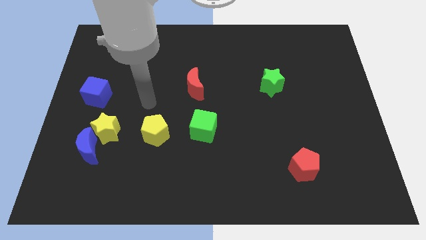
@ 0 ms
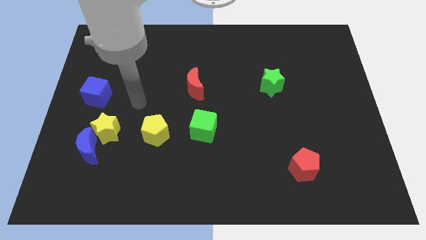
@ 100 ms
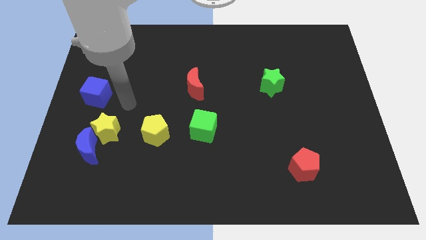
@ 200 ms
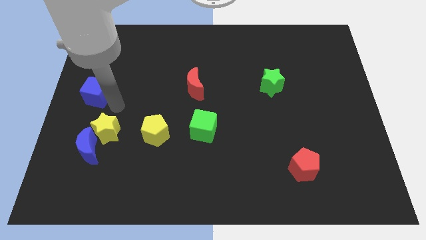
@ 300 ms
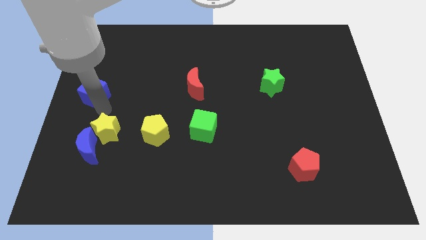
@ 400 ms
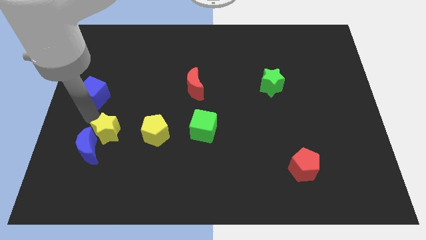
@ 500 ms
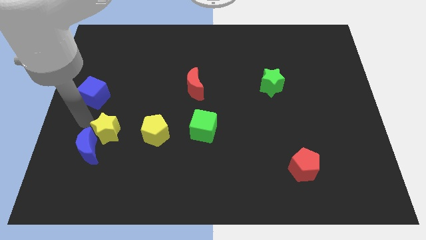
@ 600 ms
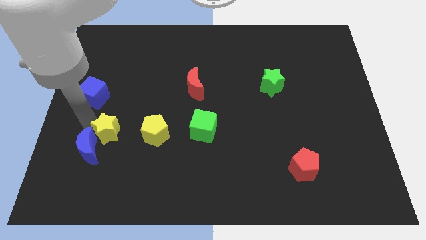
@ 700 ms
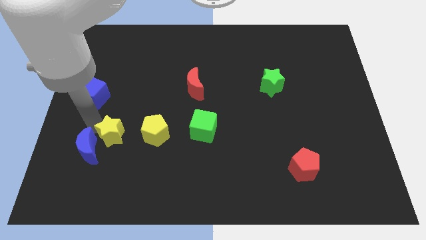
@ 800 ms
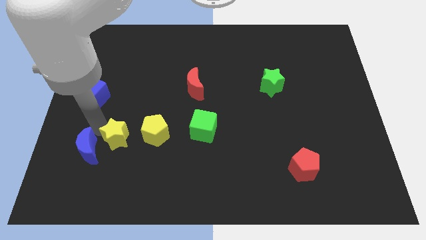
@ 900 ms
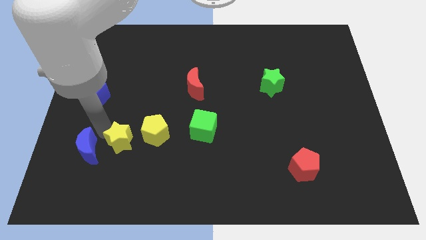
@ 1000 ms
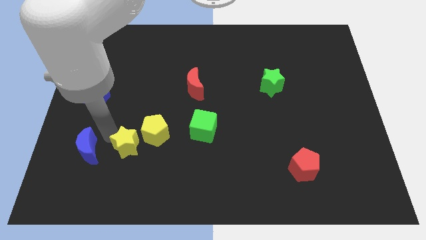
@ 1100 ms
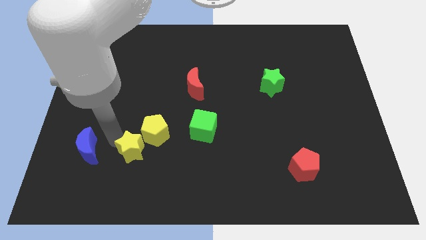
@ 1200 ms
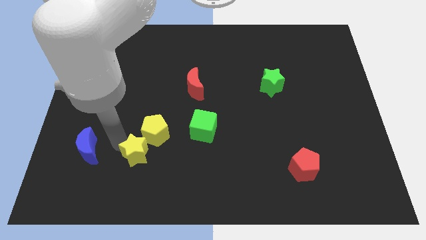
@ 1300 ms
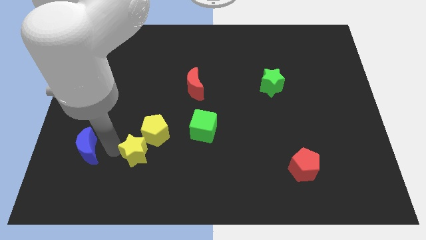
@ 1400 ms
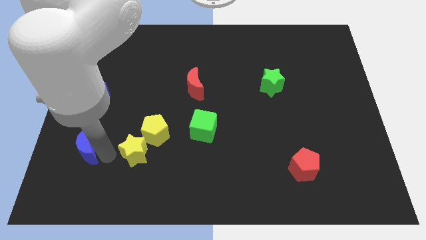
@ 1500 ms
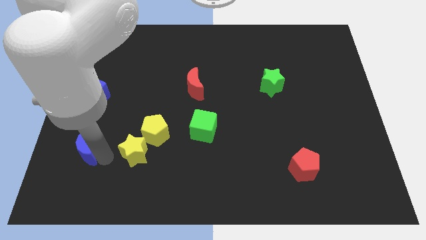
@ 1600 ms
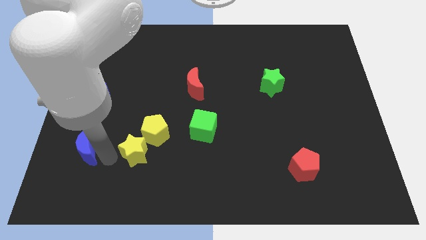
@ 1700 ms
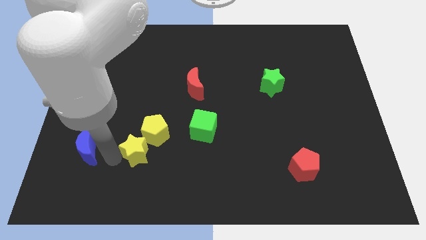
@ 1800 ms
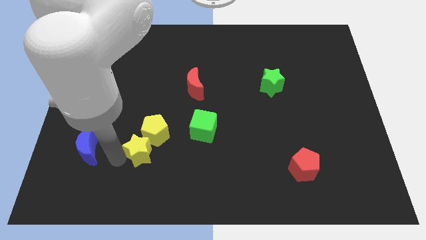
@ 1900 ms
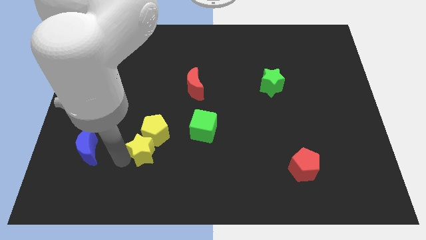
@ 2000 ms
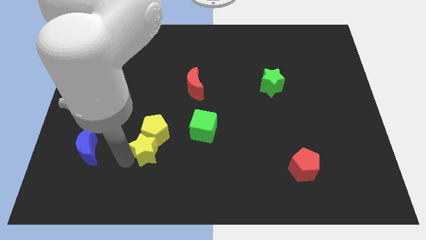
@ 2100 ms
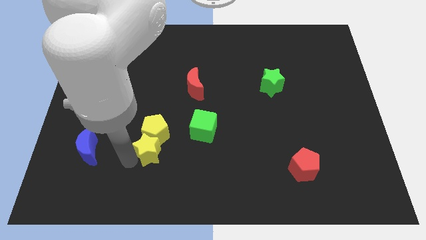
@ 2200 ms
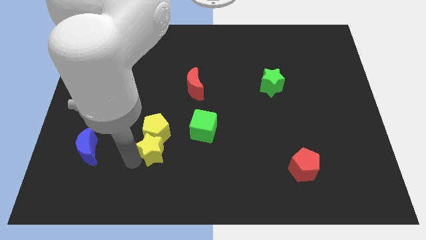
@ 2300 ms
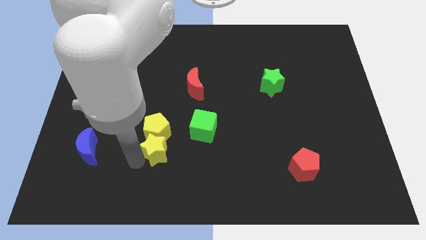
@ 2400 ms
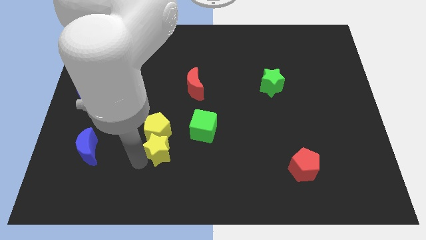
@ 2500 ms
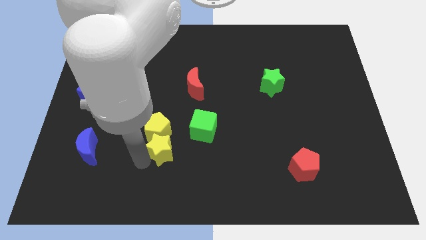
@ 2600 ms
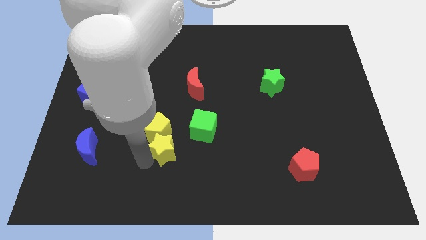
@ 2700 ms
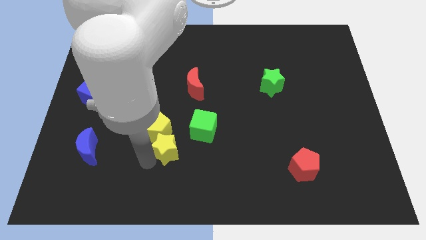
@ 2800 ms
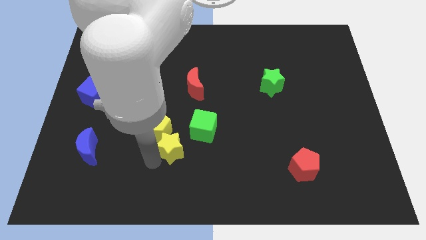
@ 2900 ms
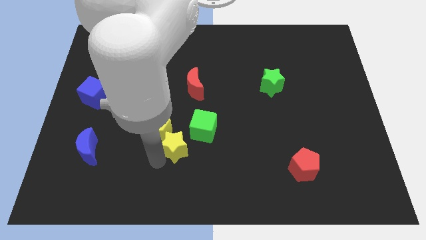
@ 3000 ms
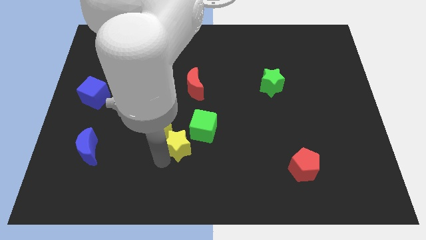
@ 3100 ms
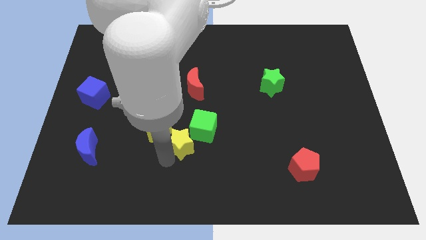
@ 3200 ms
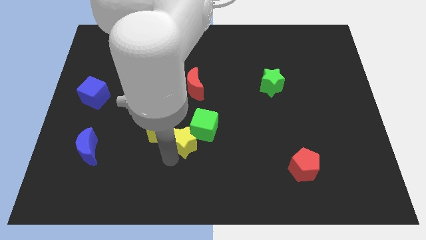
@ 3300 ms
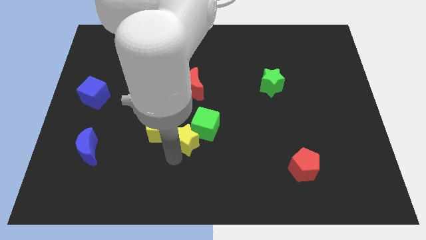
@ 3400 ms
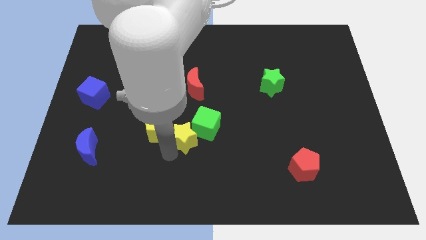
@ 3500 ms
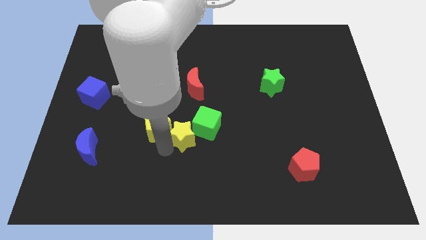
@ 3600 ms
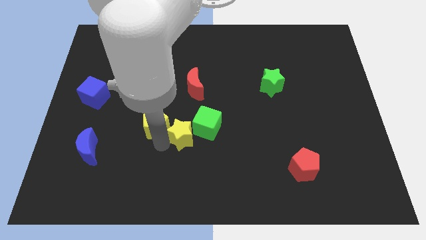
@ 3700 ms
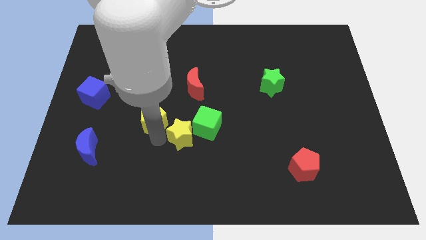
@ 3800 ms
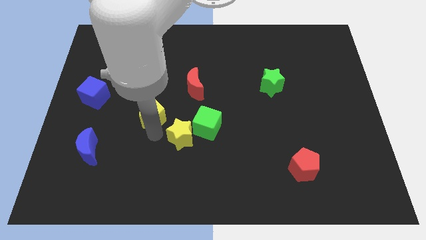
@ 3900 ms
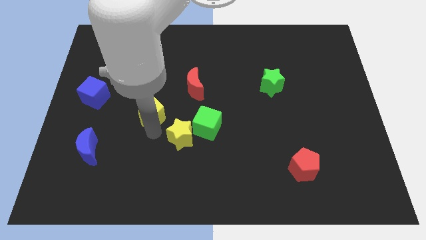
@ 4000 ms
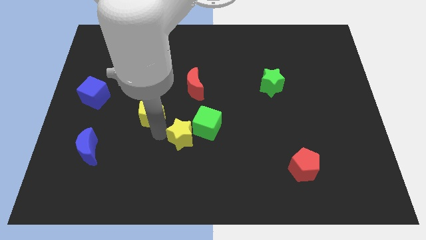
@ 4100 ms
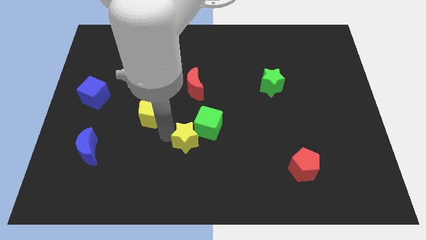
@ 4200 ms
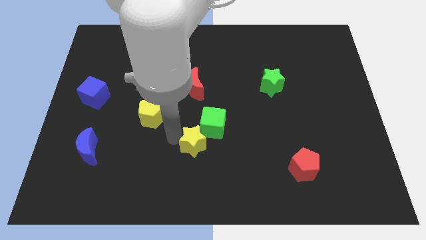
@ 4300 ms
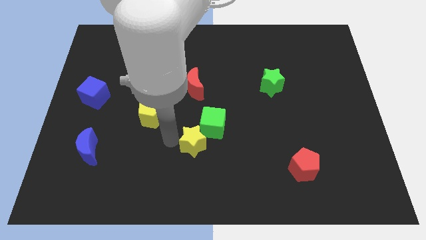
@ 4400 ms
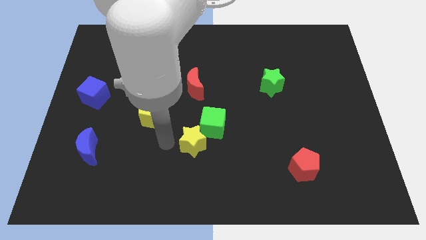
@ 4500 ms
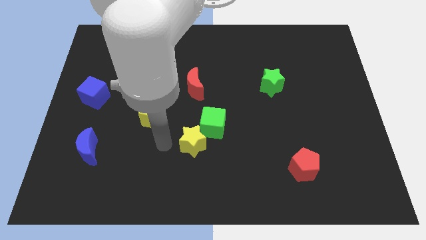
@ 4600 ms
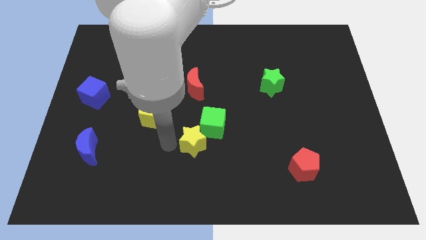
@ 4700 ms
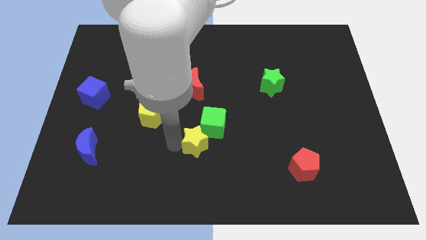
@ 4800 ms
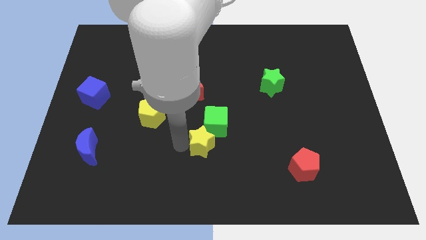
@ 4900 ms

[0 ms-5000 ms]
move the yellow star to the right

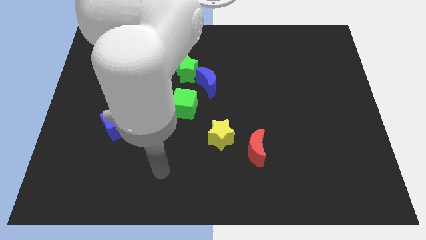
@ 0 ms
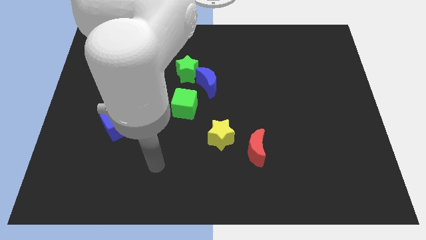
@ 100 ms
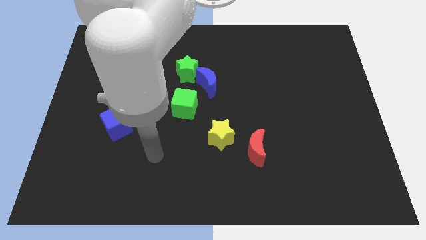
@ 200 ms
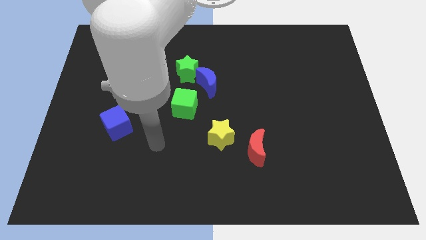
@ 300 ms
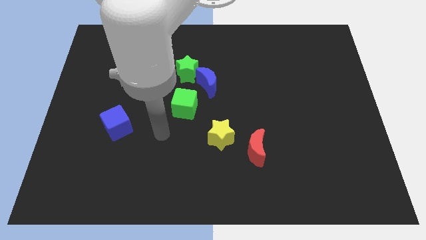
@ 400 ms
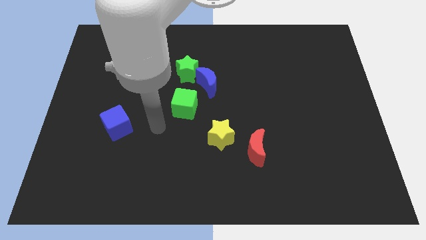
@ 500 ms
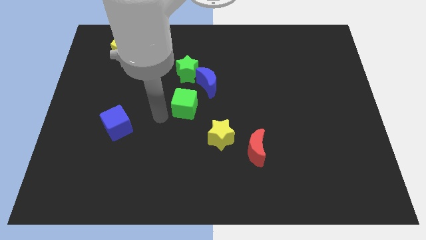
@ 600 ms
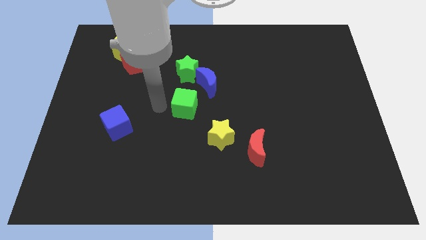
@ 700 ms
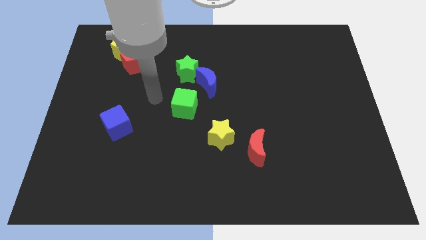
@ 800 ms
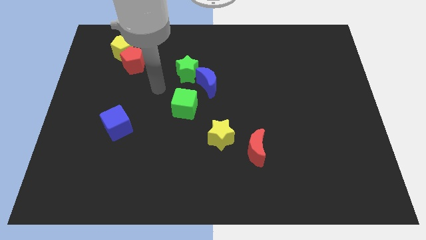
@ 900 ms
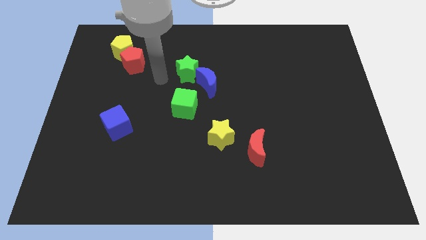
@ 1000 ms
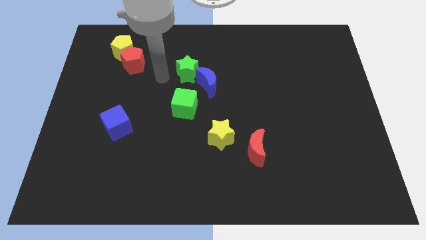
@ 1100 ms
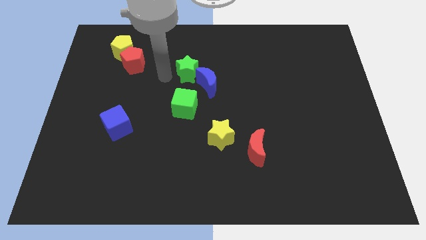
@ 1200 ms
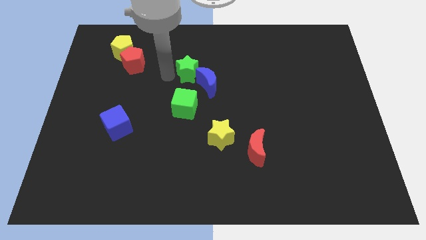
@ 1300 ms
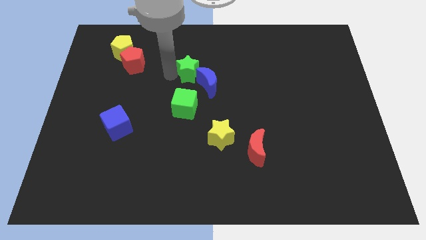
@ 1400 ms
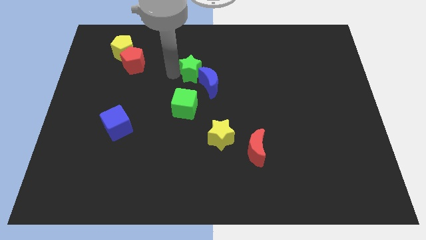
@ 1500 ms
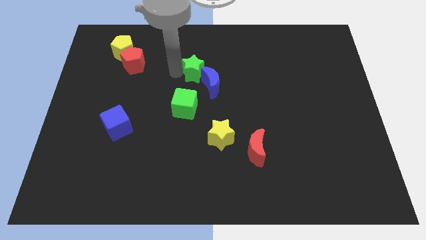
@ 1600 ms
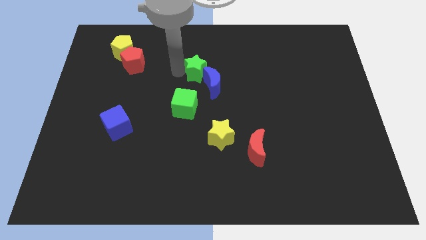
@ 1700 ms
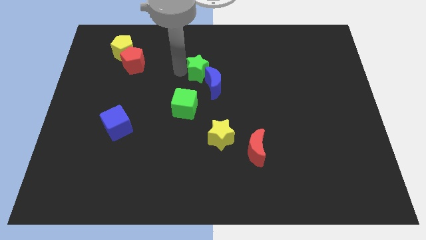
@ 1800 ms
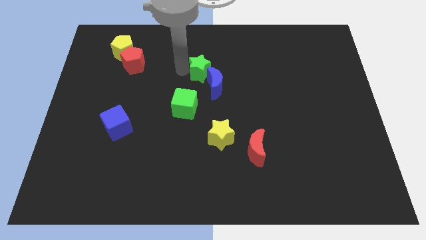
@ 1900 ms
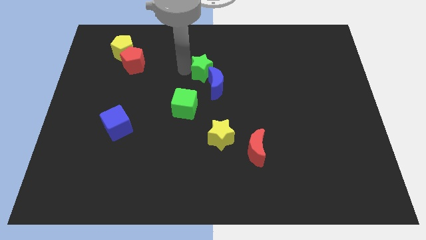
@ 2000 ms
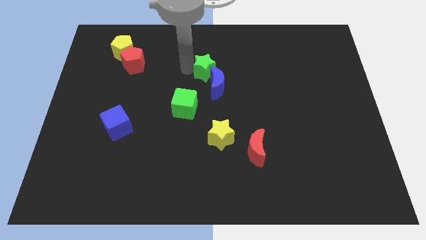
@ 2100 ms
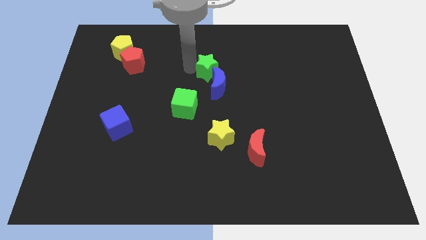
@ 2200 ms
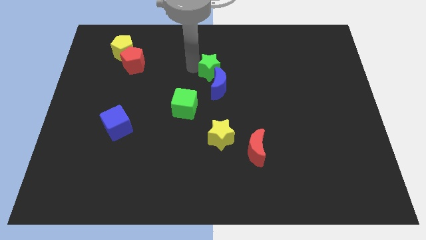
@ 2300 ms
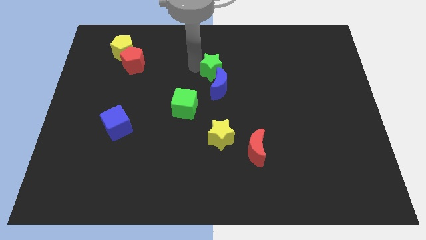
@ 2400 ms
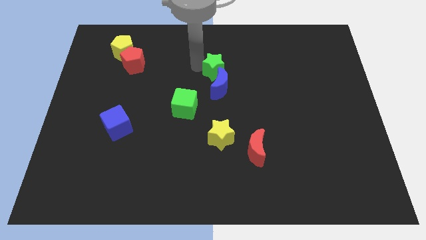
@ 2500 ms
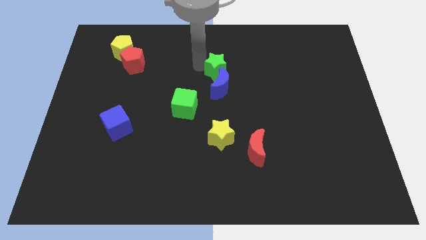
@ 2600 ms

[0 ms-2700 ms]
slightly slide the green star to the right

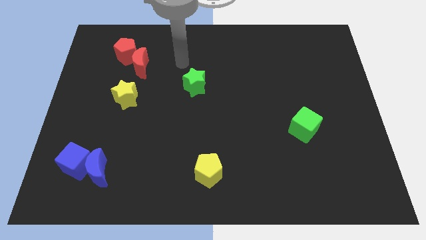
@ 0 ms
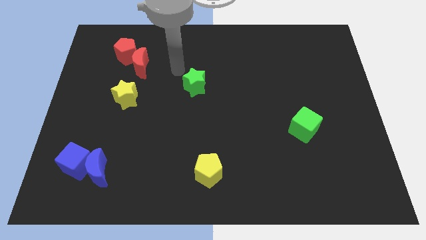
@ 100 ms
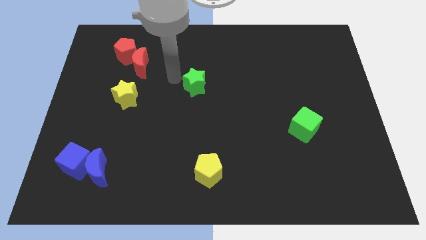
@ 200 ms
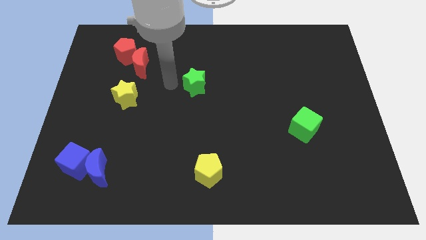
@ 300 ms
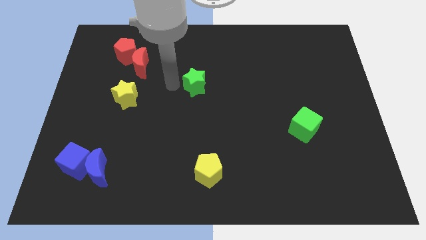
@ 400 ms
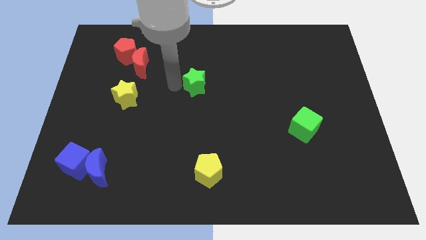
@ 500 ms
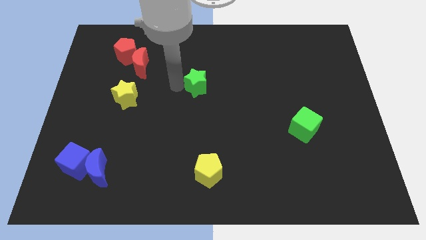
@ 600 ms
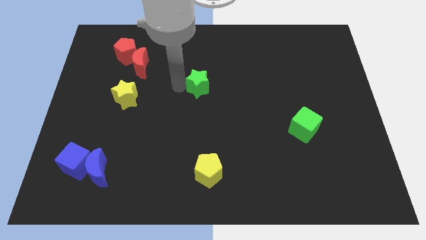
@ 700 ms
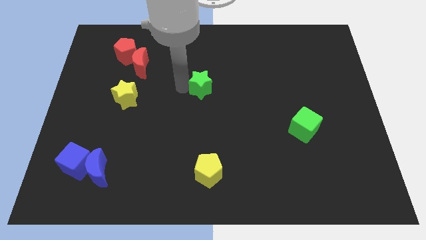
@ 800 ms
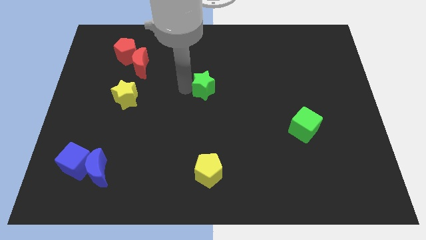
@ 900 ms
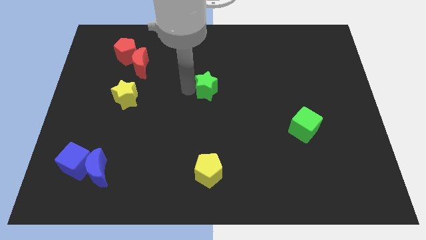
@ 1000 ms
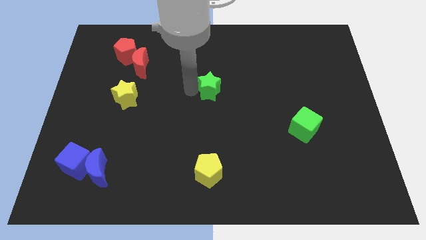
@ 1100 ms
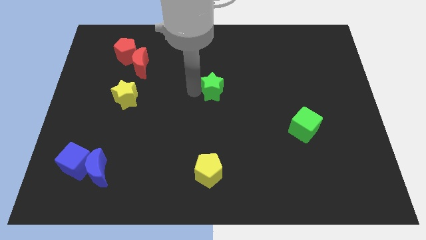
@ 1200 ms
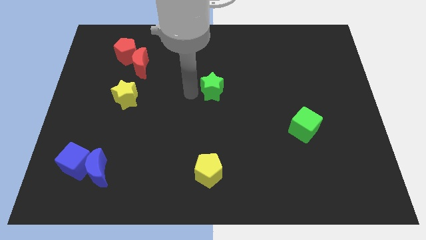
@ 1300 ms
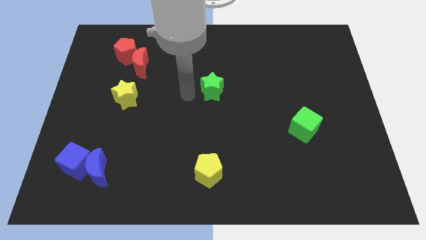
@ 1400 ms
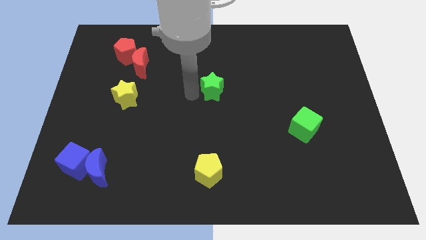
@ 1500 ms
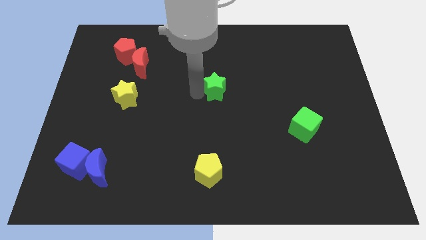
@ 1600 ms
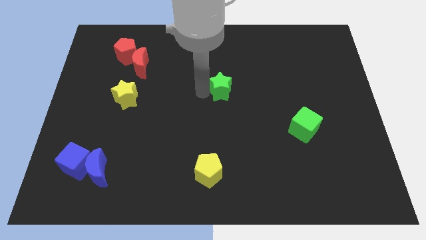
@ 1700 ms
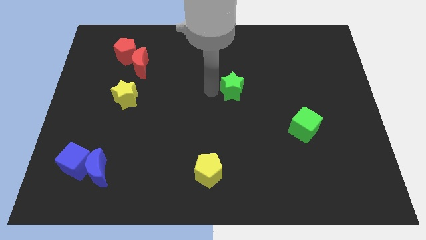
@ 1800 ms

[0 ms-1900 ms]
slide the green star right somewhat
